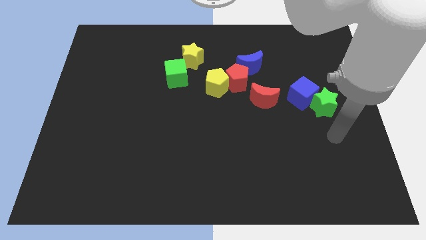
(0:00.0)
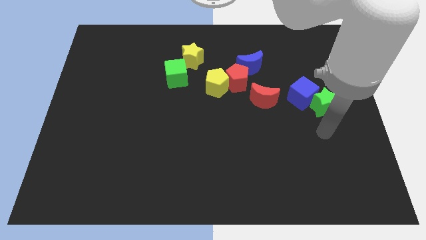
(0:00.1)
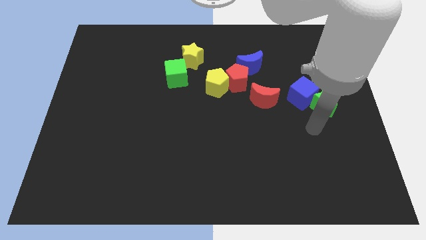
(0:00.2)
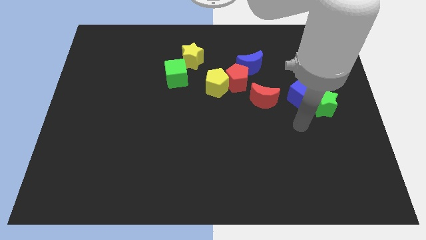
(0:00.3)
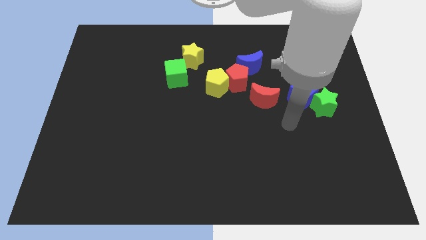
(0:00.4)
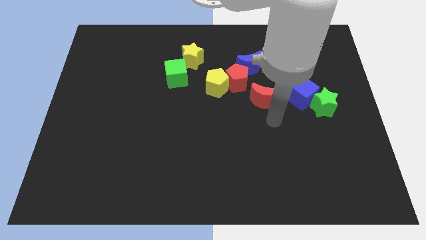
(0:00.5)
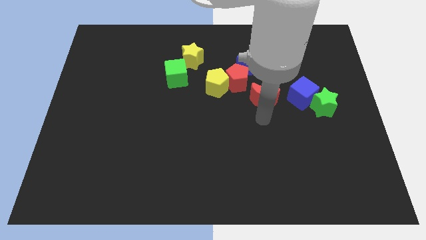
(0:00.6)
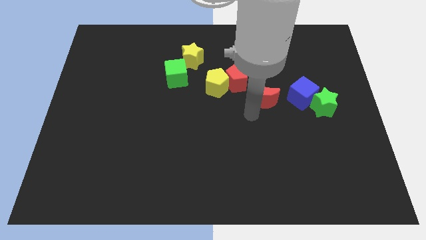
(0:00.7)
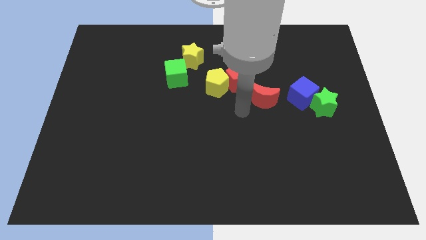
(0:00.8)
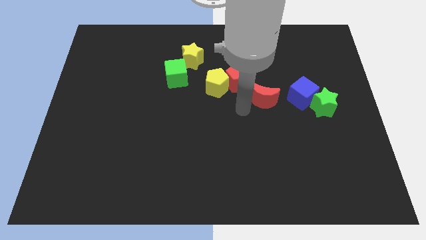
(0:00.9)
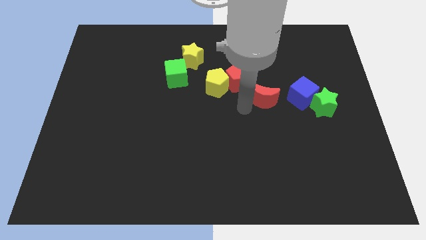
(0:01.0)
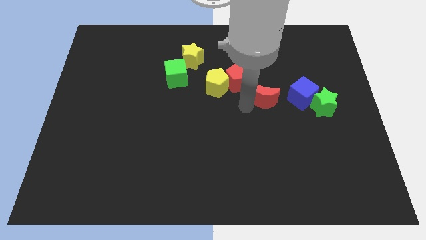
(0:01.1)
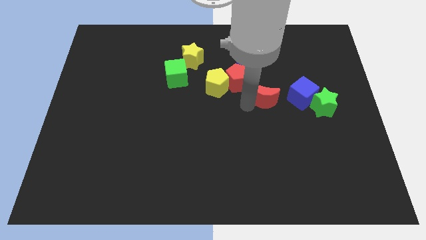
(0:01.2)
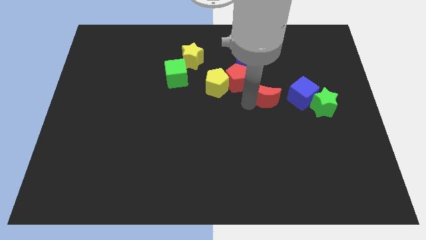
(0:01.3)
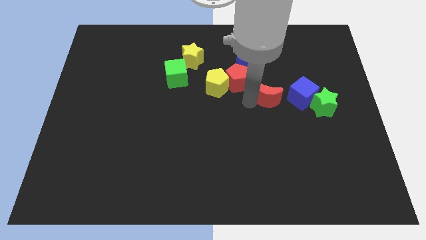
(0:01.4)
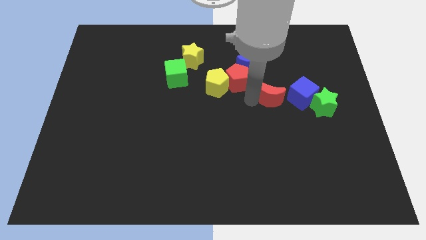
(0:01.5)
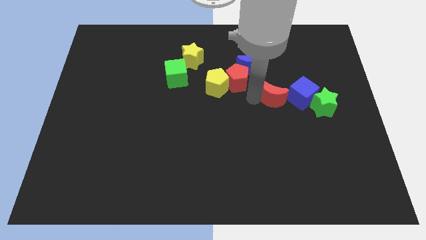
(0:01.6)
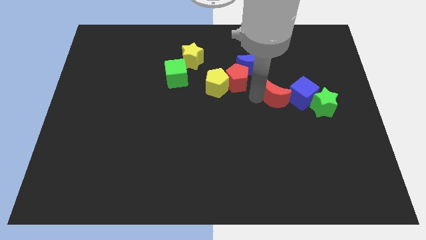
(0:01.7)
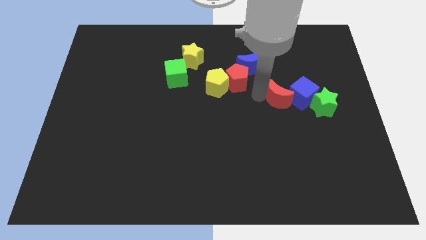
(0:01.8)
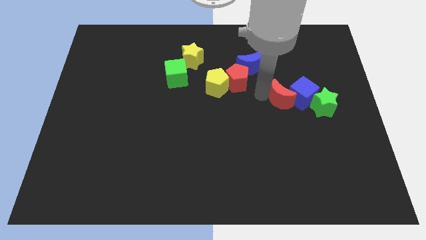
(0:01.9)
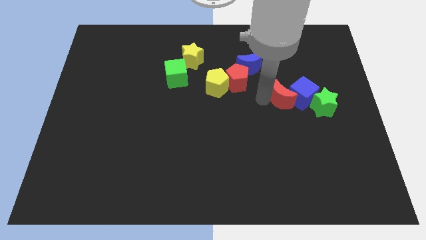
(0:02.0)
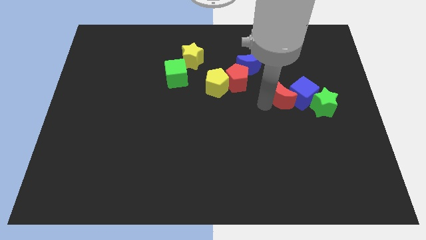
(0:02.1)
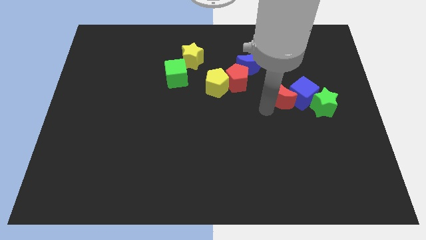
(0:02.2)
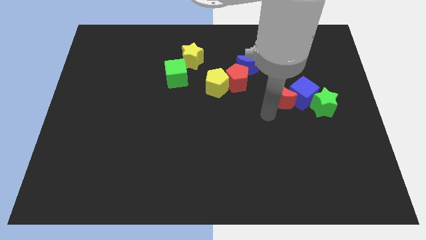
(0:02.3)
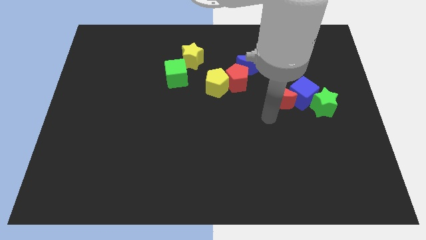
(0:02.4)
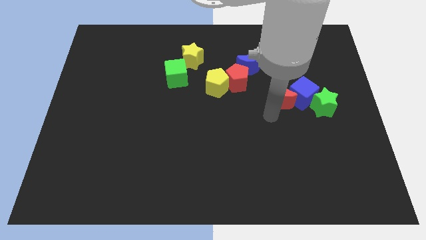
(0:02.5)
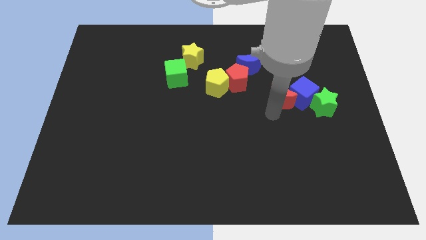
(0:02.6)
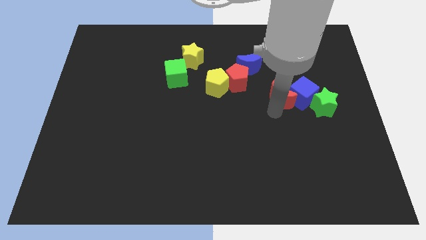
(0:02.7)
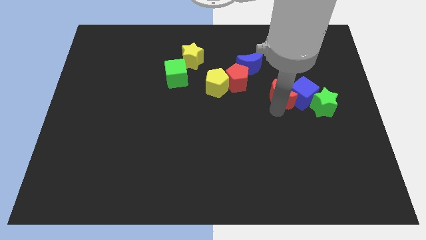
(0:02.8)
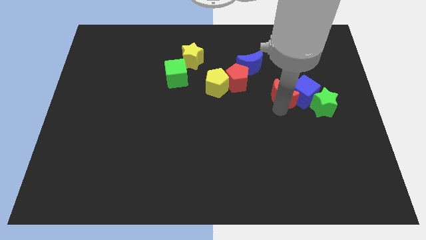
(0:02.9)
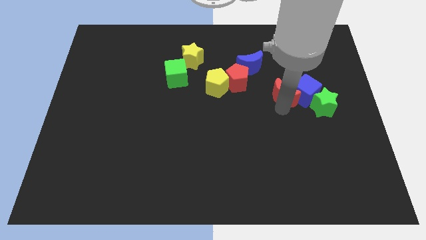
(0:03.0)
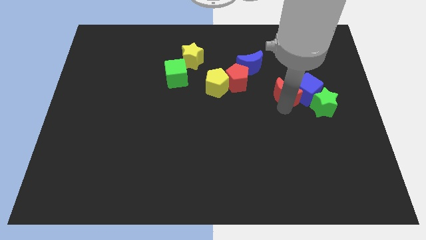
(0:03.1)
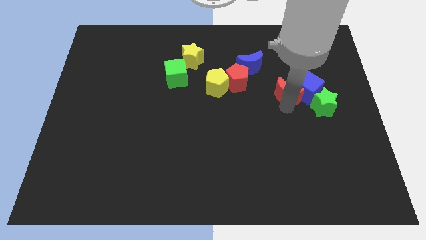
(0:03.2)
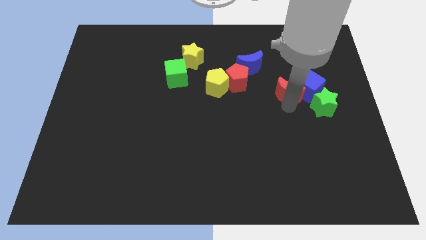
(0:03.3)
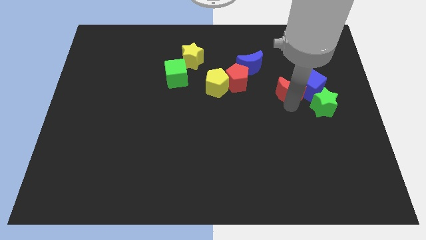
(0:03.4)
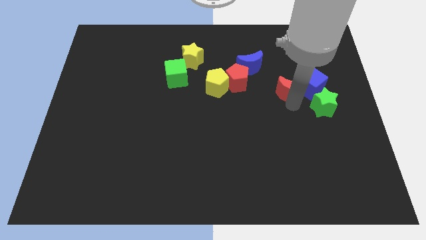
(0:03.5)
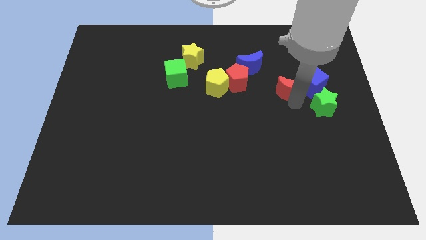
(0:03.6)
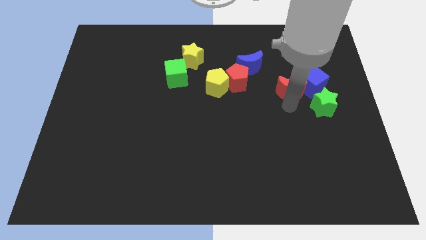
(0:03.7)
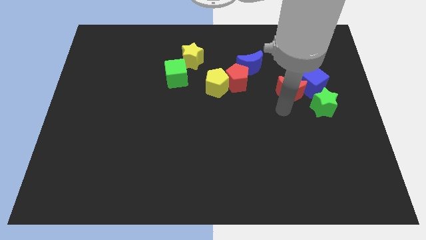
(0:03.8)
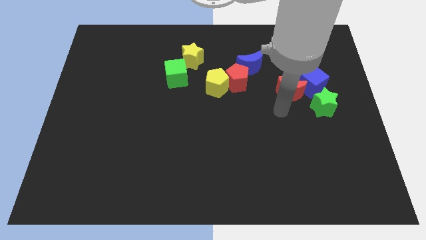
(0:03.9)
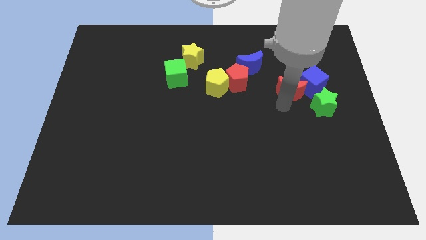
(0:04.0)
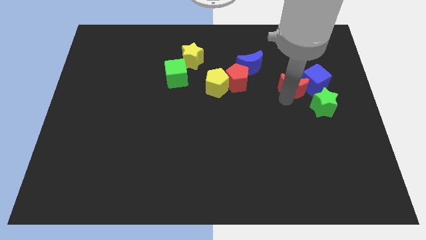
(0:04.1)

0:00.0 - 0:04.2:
move the red moon a little upwards and to the right diagonally

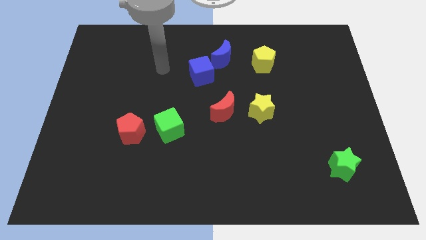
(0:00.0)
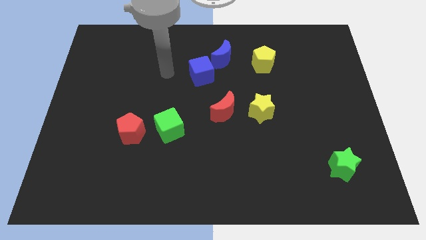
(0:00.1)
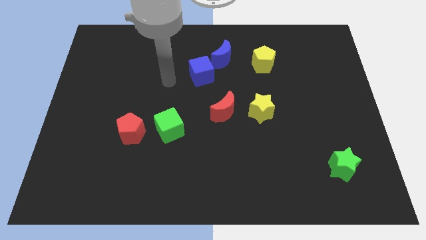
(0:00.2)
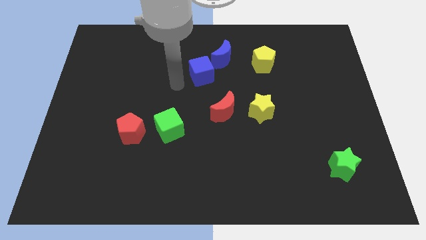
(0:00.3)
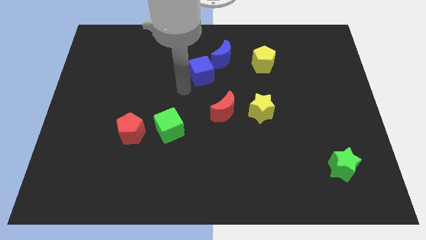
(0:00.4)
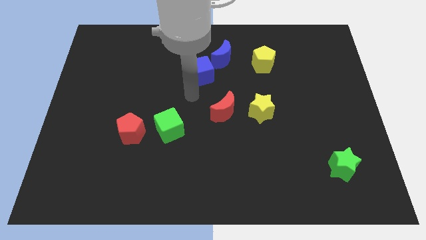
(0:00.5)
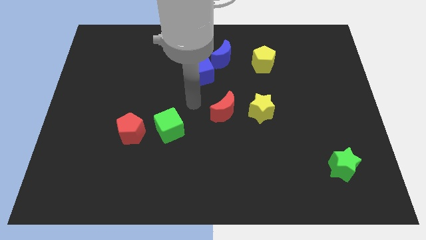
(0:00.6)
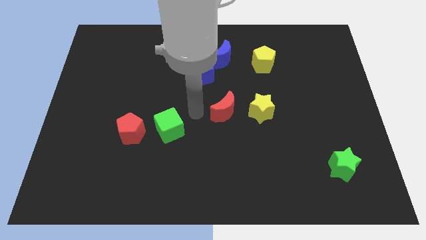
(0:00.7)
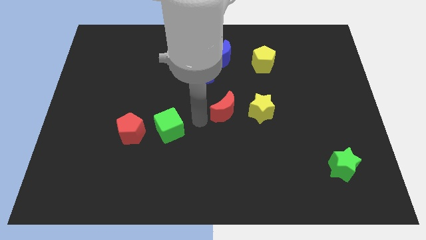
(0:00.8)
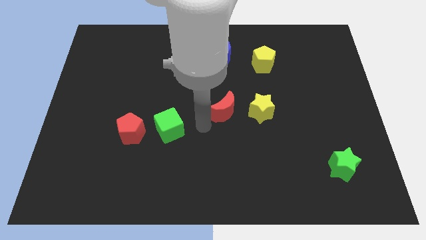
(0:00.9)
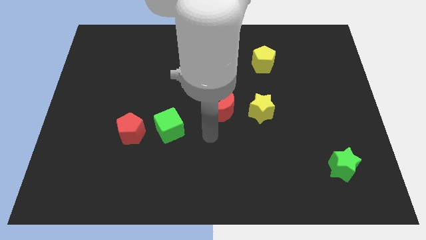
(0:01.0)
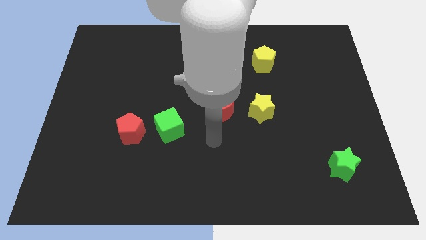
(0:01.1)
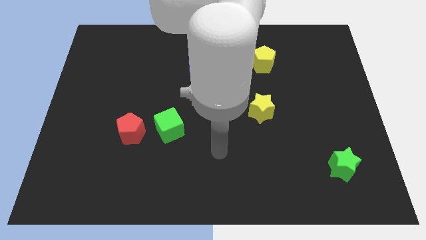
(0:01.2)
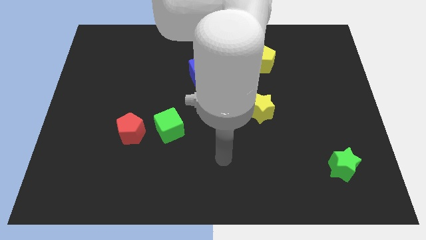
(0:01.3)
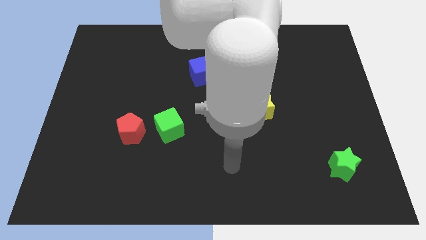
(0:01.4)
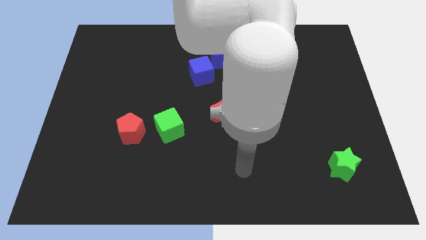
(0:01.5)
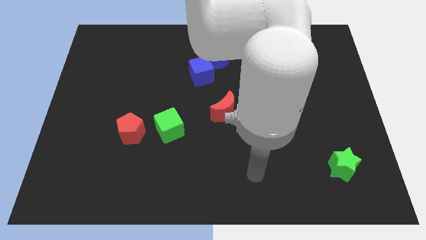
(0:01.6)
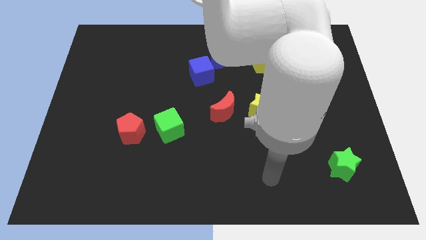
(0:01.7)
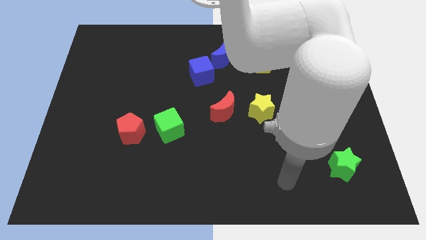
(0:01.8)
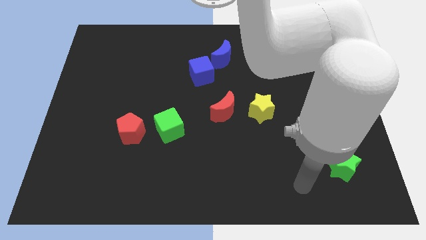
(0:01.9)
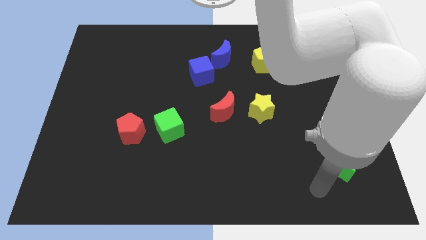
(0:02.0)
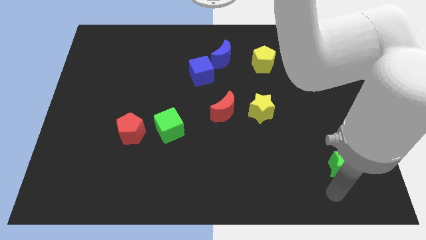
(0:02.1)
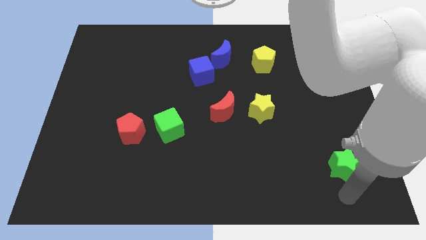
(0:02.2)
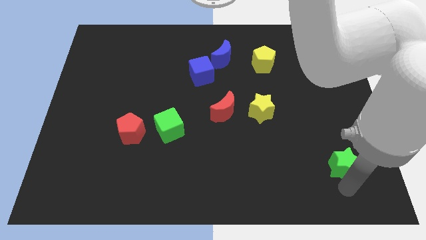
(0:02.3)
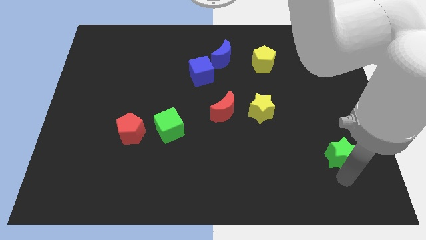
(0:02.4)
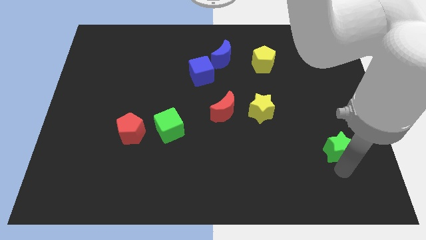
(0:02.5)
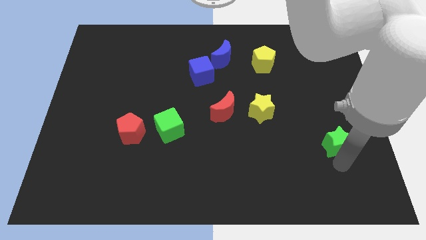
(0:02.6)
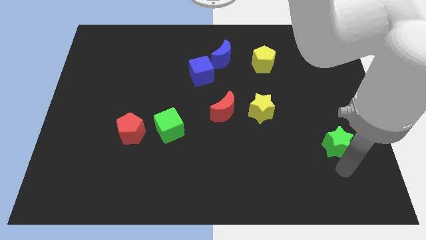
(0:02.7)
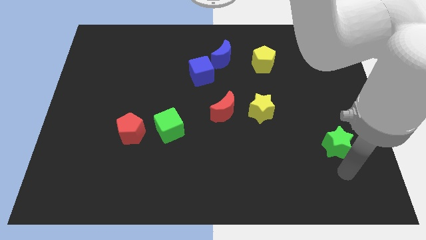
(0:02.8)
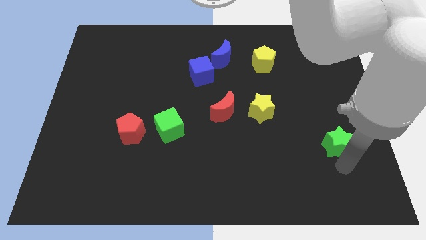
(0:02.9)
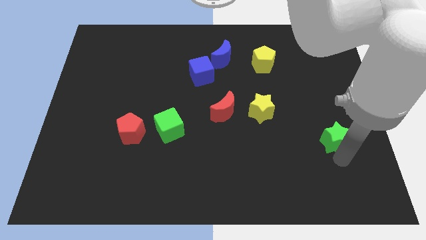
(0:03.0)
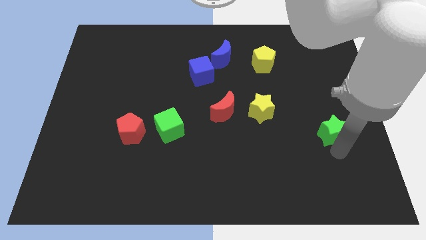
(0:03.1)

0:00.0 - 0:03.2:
slide the green star upwards somewhat

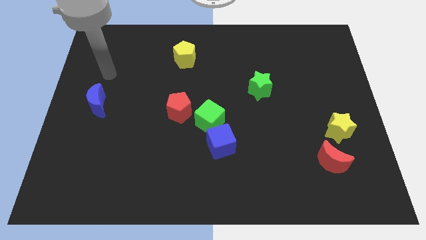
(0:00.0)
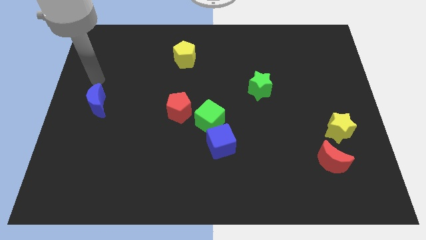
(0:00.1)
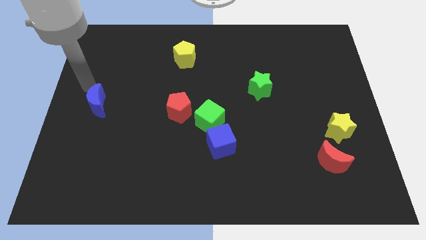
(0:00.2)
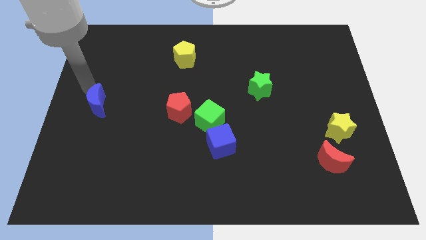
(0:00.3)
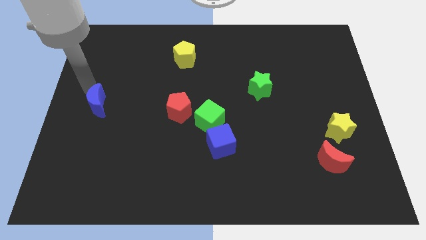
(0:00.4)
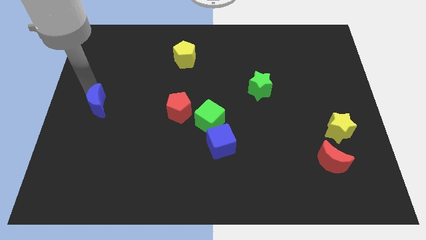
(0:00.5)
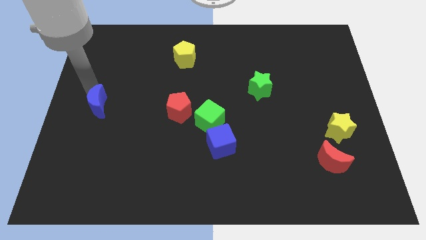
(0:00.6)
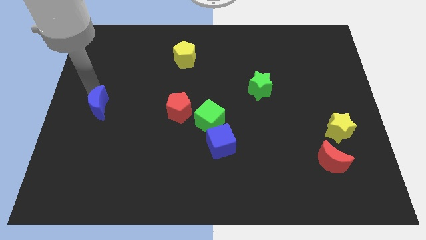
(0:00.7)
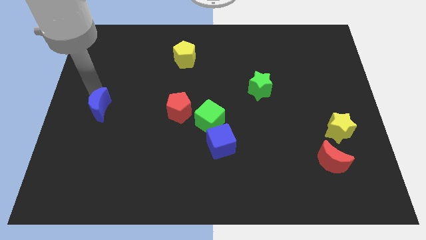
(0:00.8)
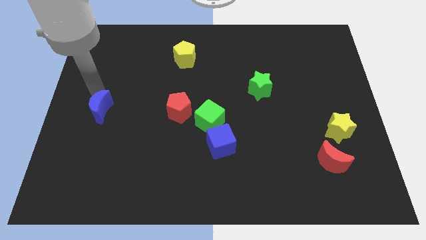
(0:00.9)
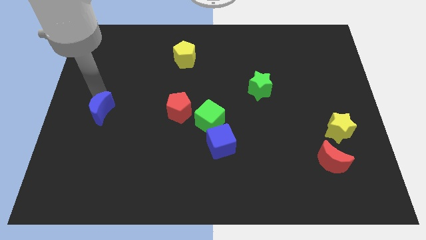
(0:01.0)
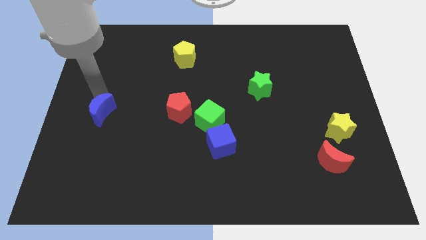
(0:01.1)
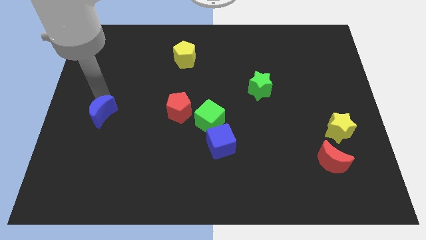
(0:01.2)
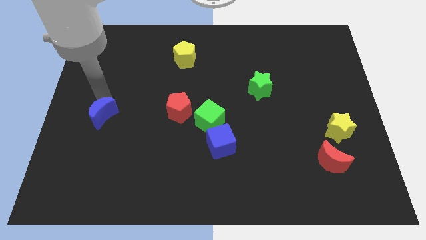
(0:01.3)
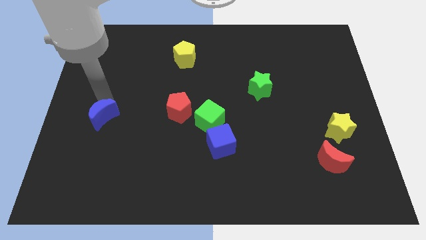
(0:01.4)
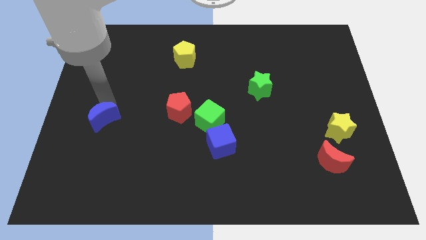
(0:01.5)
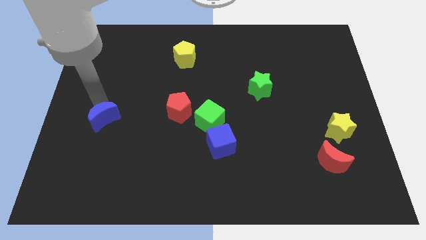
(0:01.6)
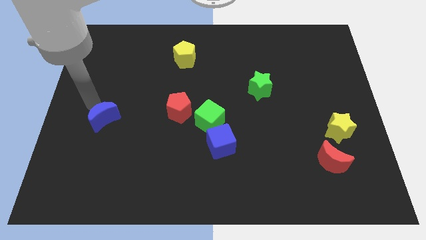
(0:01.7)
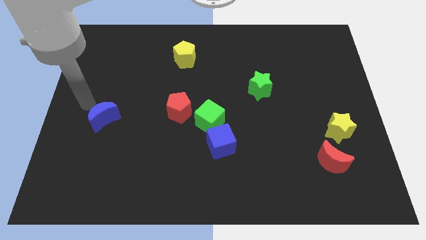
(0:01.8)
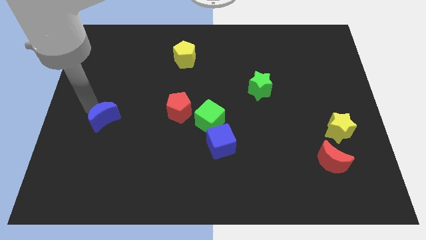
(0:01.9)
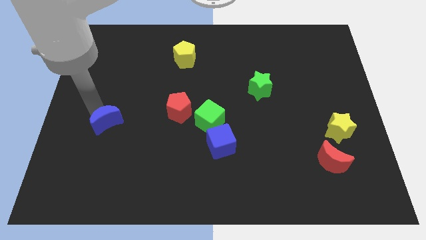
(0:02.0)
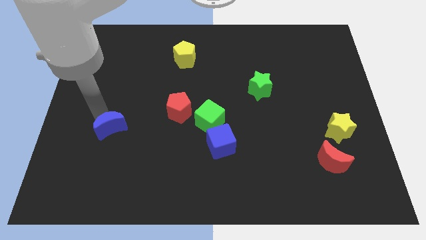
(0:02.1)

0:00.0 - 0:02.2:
move the blue moon downwards and to the right diagonally somewhat
